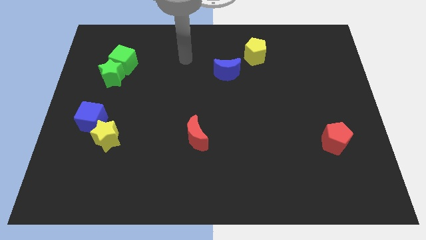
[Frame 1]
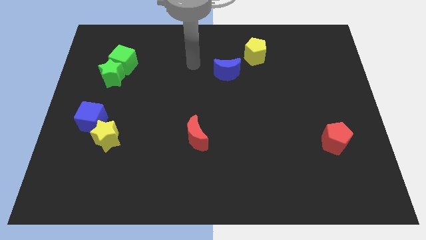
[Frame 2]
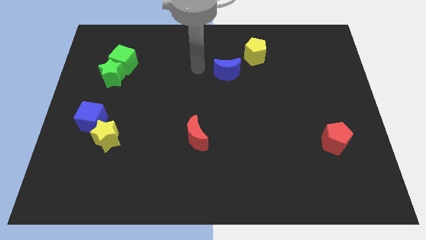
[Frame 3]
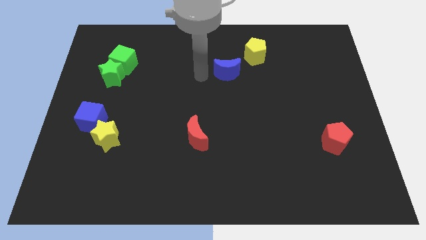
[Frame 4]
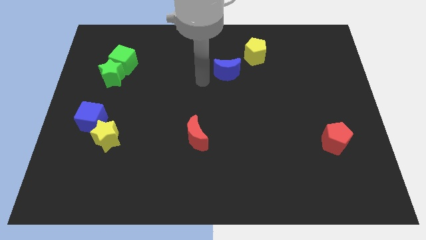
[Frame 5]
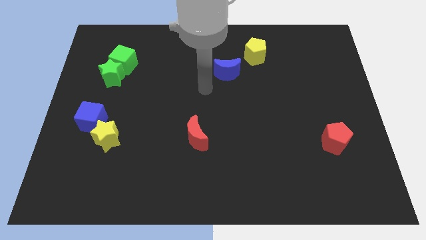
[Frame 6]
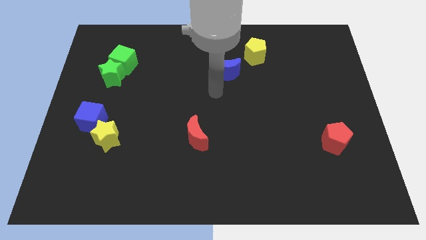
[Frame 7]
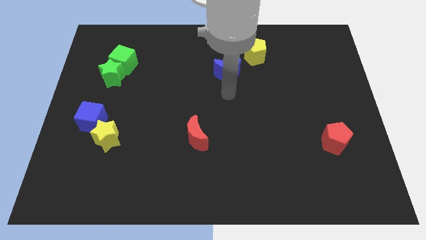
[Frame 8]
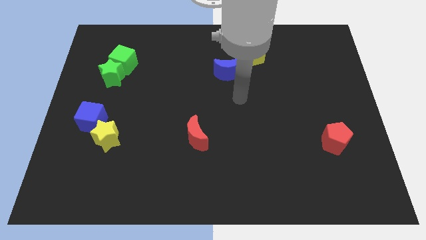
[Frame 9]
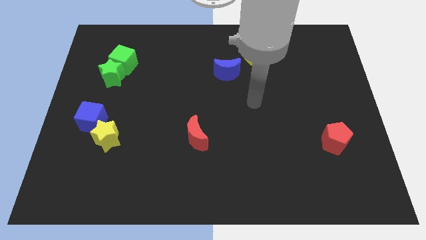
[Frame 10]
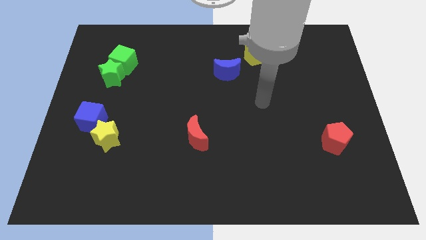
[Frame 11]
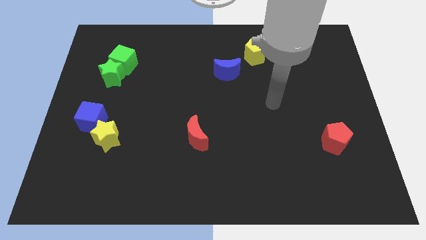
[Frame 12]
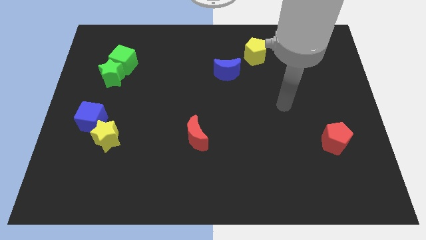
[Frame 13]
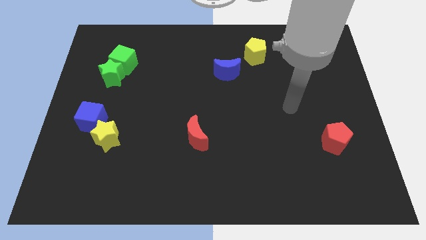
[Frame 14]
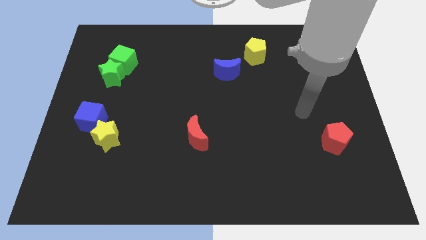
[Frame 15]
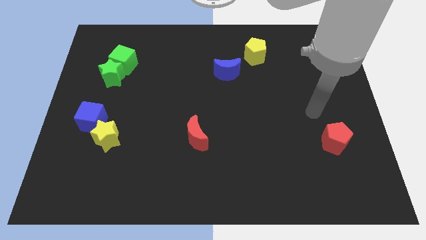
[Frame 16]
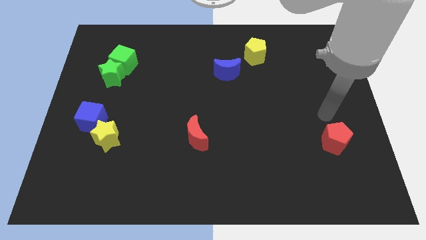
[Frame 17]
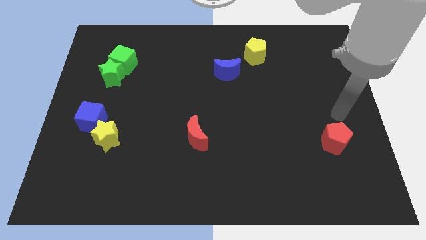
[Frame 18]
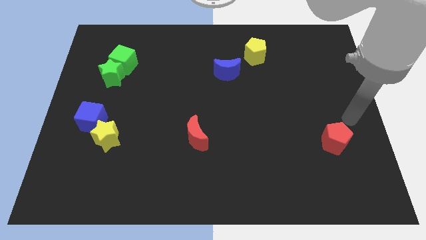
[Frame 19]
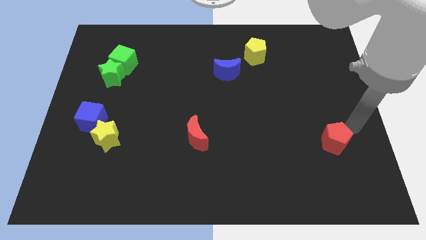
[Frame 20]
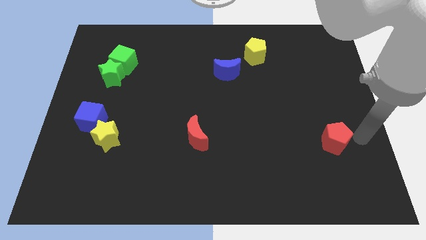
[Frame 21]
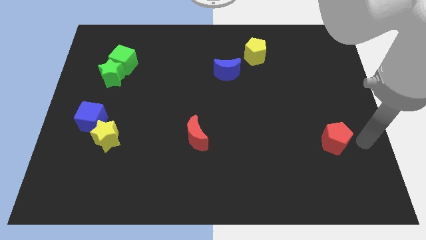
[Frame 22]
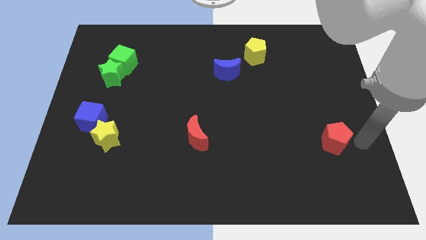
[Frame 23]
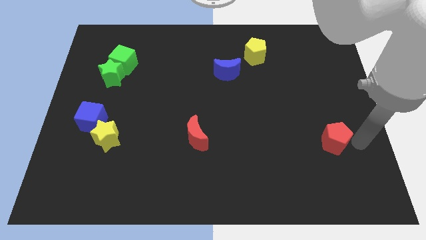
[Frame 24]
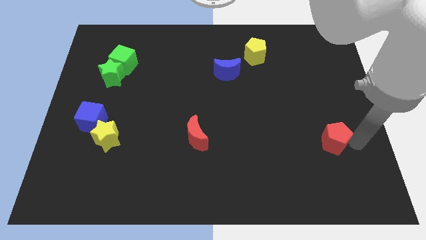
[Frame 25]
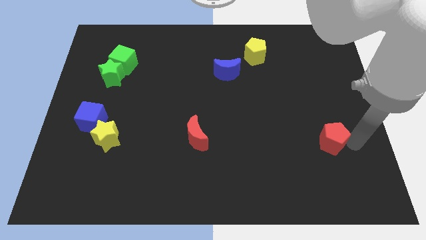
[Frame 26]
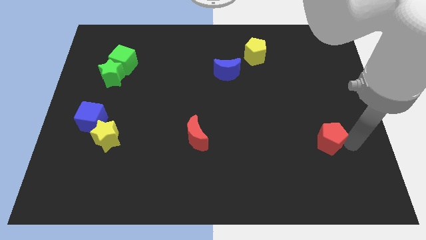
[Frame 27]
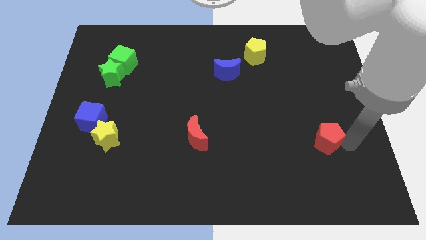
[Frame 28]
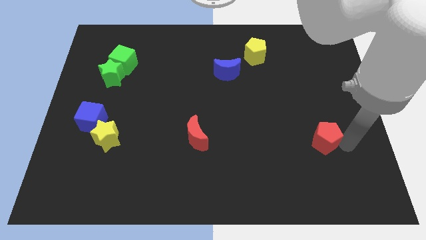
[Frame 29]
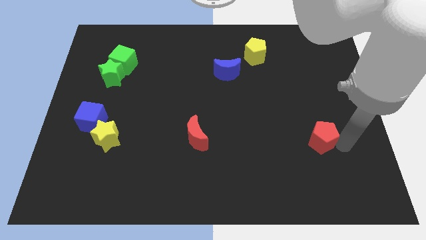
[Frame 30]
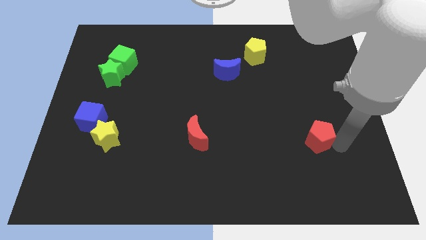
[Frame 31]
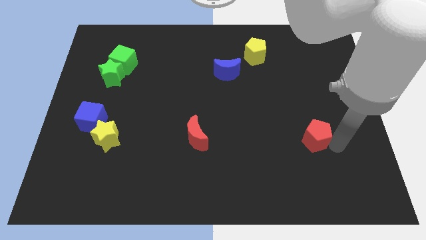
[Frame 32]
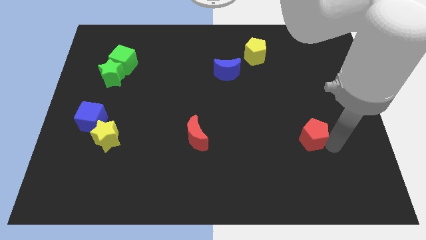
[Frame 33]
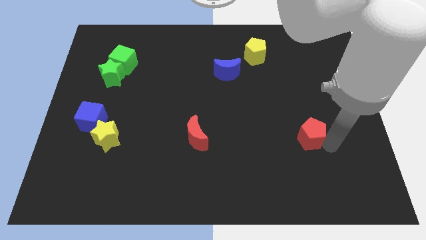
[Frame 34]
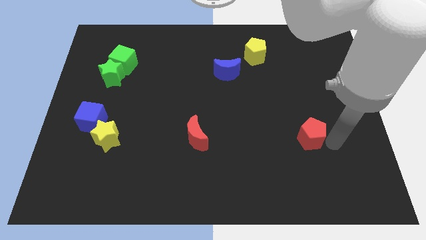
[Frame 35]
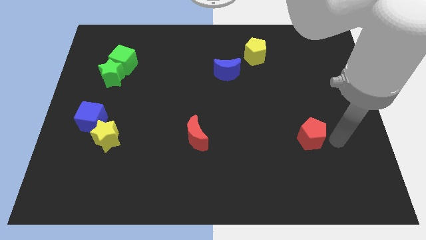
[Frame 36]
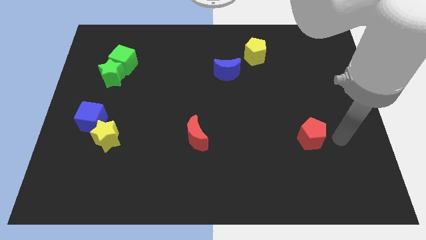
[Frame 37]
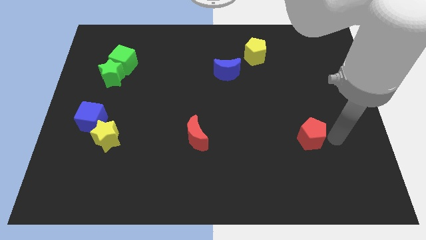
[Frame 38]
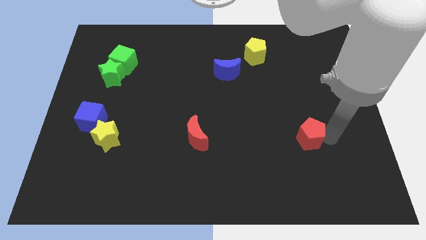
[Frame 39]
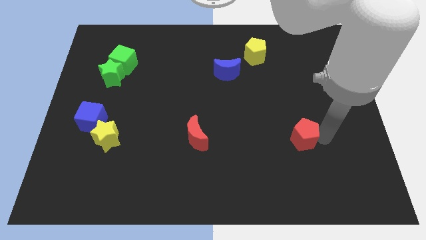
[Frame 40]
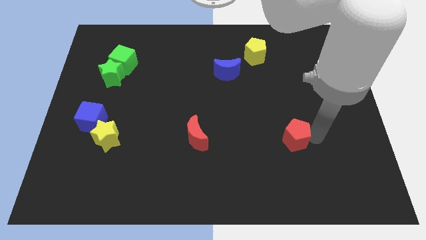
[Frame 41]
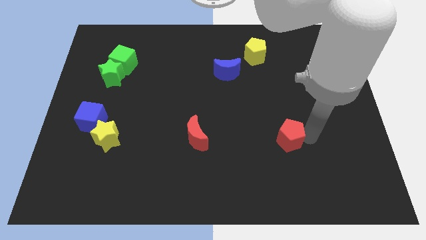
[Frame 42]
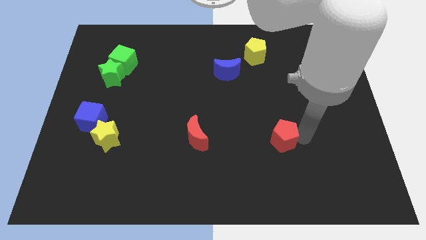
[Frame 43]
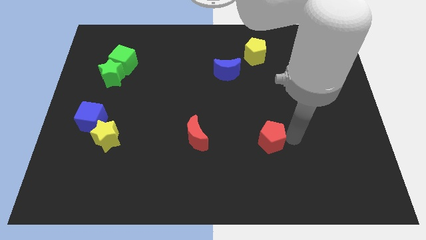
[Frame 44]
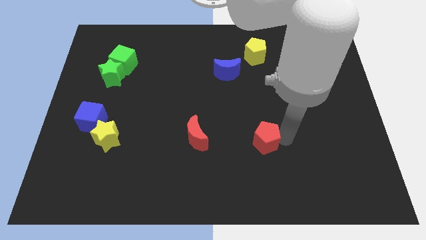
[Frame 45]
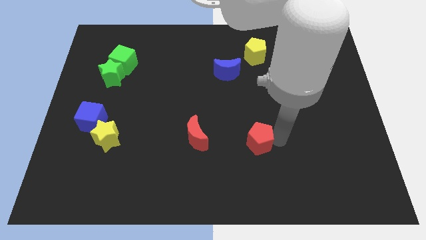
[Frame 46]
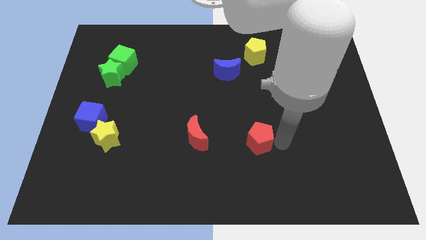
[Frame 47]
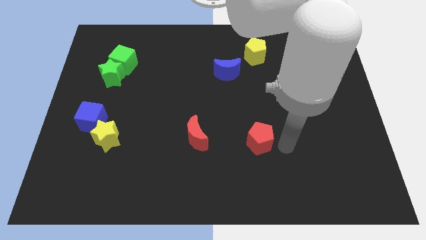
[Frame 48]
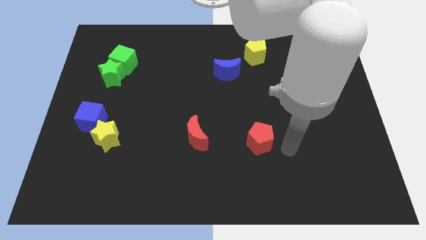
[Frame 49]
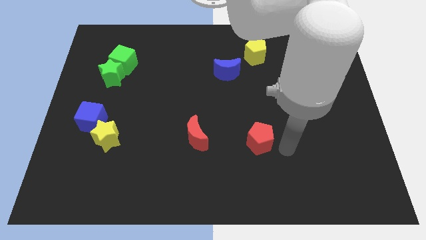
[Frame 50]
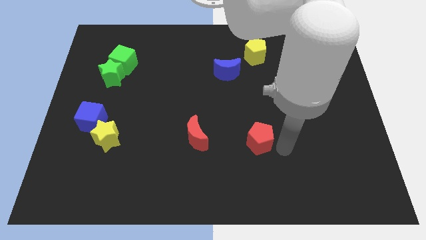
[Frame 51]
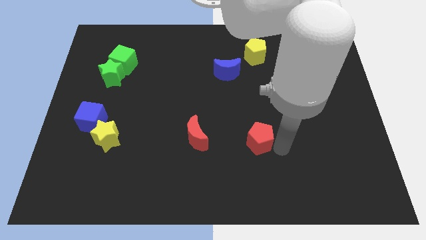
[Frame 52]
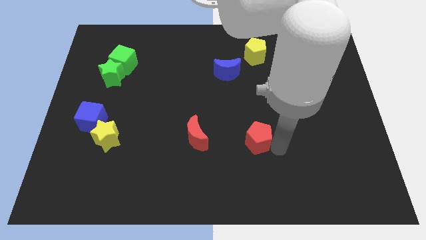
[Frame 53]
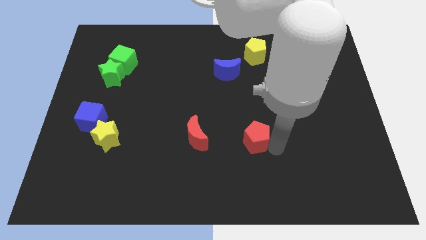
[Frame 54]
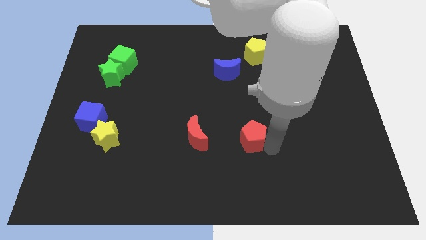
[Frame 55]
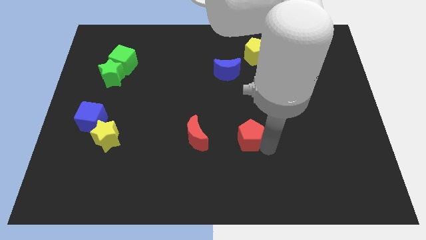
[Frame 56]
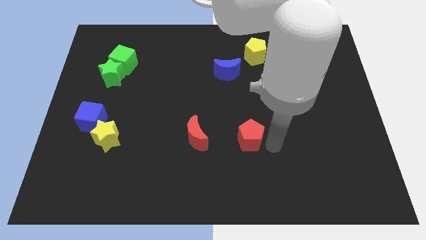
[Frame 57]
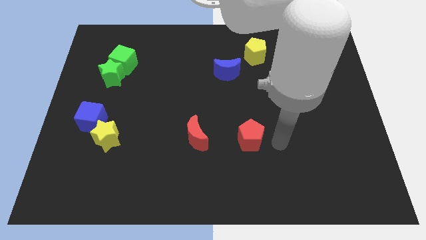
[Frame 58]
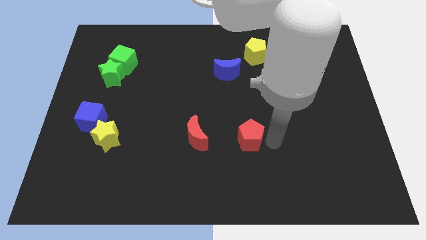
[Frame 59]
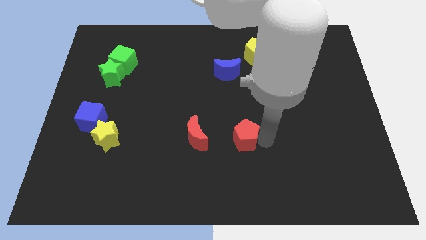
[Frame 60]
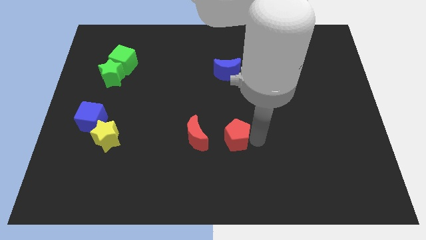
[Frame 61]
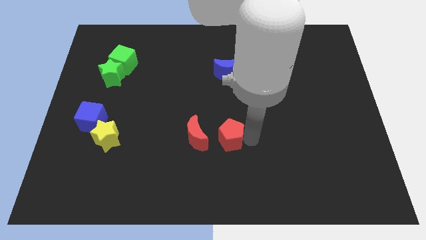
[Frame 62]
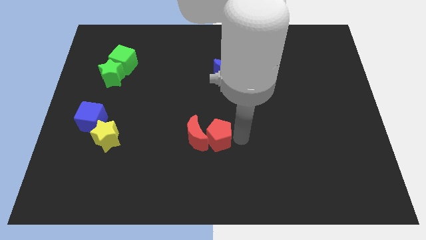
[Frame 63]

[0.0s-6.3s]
put the red pentagon next to the red moon

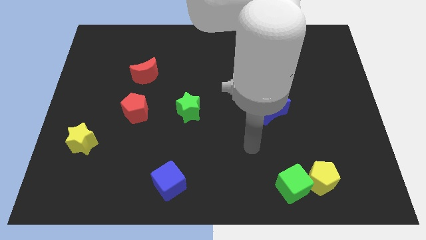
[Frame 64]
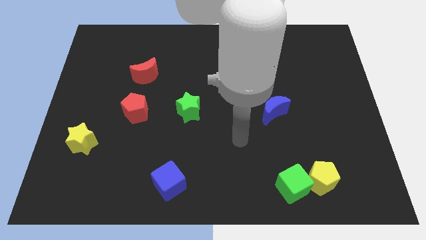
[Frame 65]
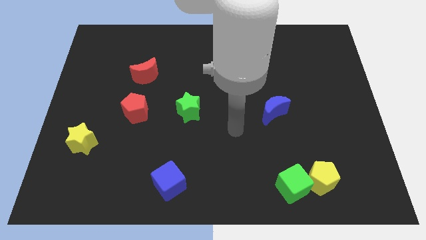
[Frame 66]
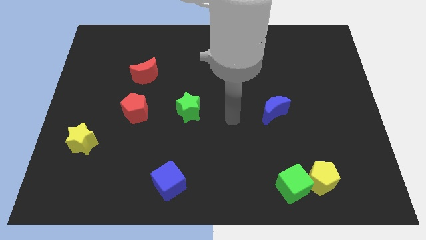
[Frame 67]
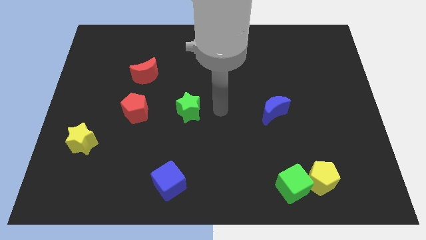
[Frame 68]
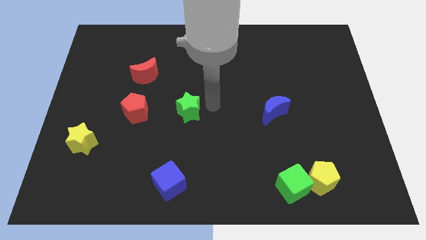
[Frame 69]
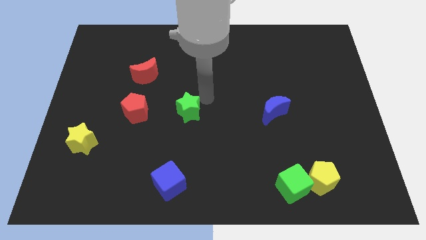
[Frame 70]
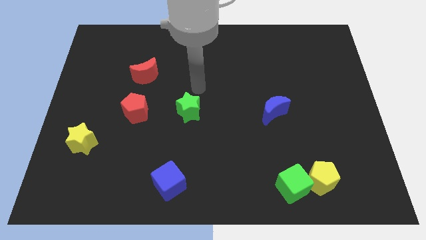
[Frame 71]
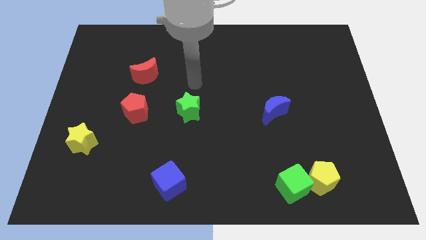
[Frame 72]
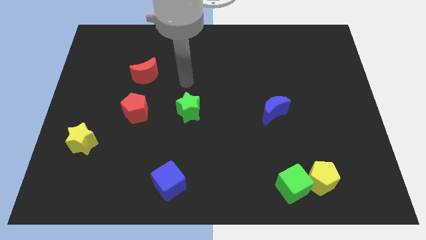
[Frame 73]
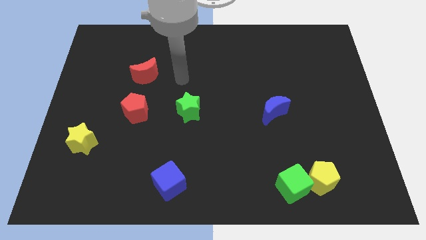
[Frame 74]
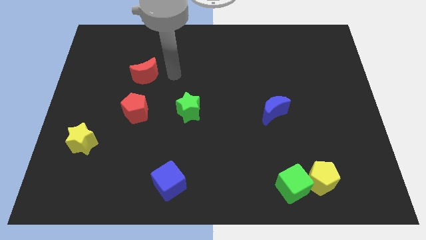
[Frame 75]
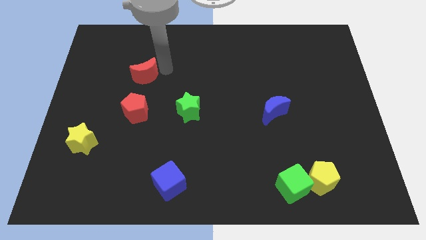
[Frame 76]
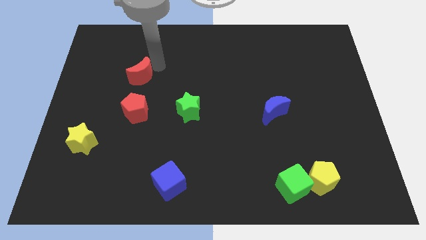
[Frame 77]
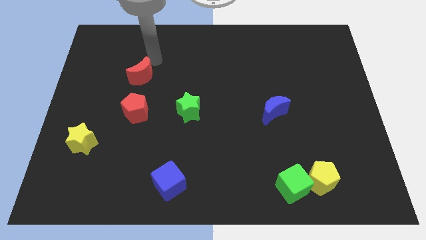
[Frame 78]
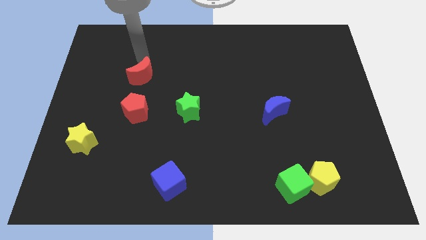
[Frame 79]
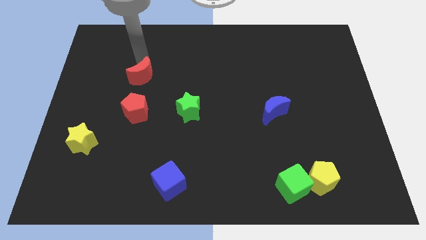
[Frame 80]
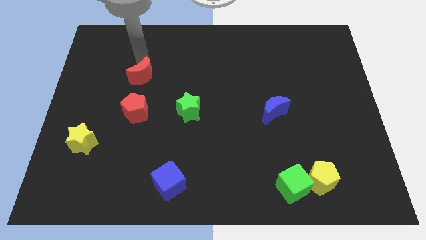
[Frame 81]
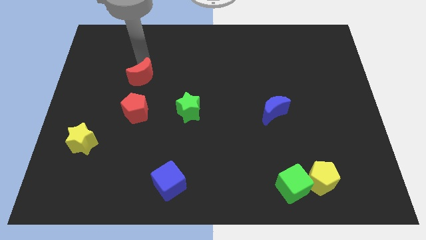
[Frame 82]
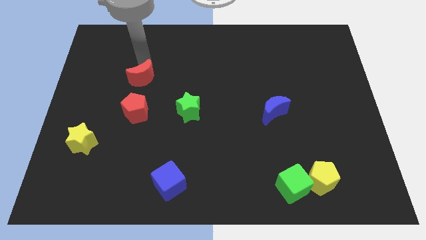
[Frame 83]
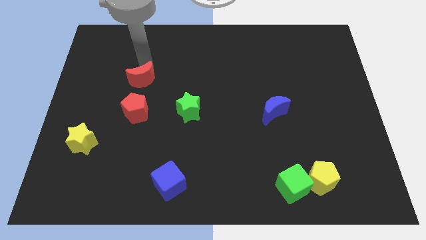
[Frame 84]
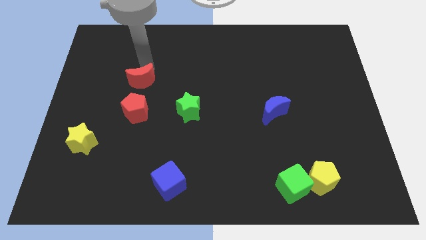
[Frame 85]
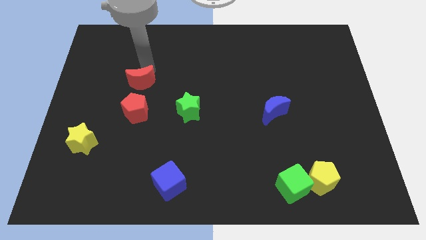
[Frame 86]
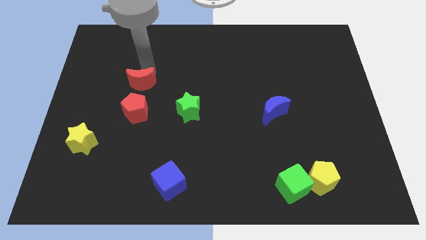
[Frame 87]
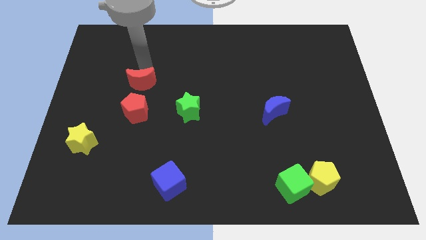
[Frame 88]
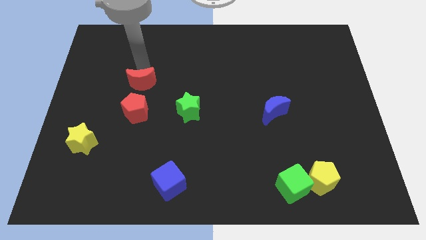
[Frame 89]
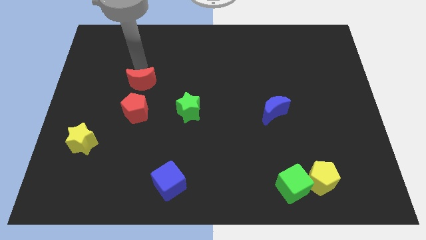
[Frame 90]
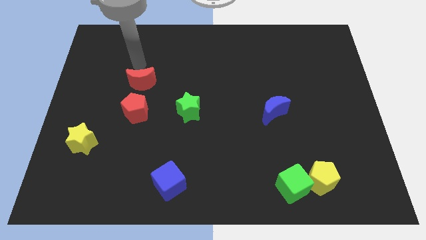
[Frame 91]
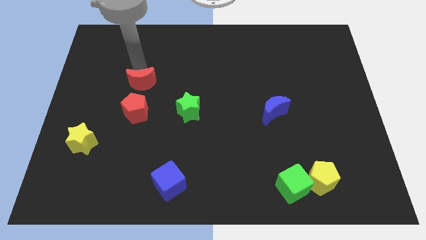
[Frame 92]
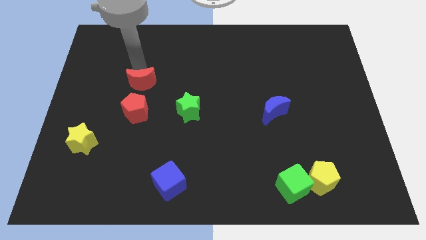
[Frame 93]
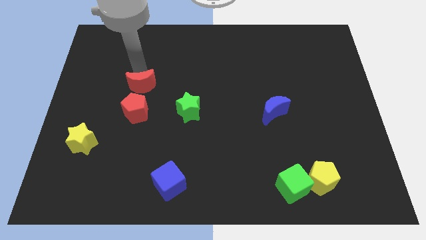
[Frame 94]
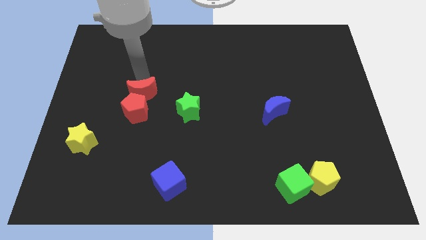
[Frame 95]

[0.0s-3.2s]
put the red moon close to the red pentagon
